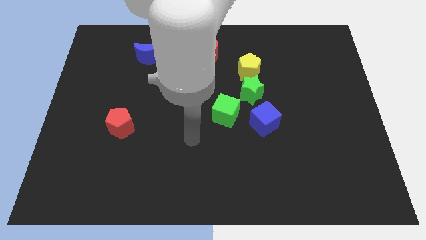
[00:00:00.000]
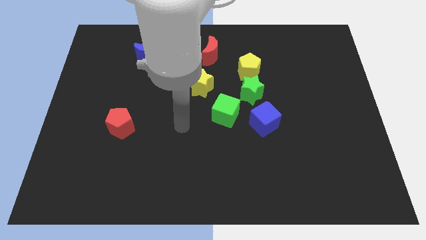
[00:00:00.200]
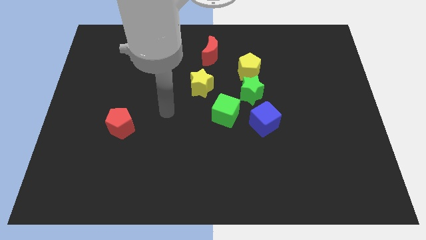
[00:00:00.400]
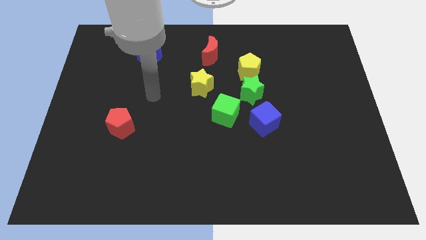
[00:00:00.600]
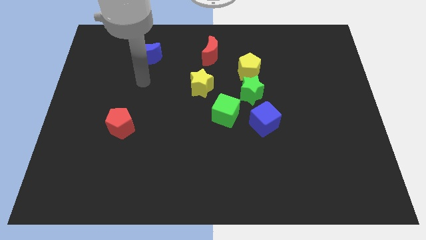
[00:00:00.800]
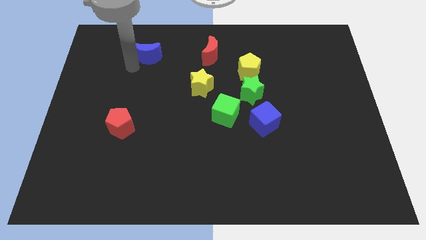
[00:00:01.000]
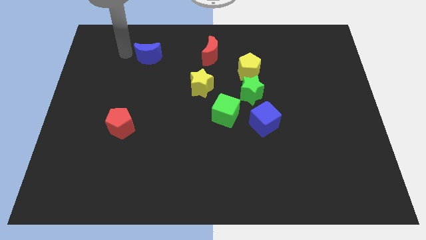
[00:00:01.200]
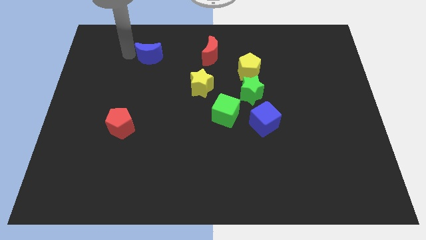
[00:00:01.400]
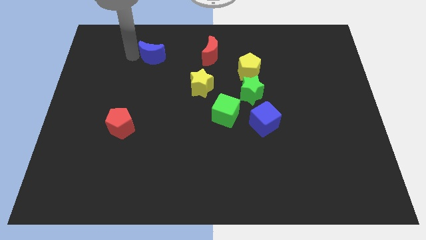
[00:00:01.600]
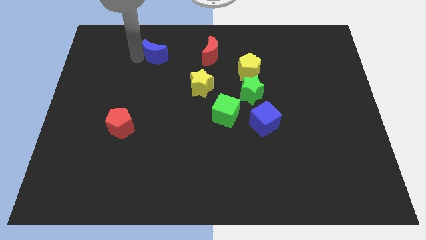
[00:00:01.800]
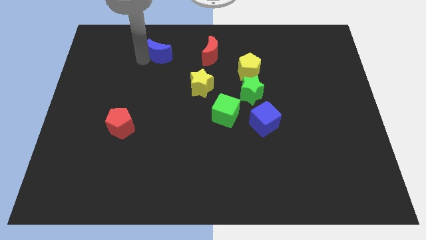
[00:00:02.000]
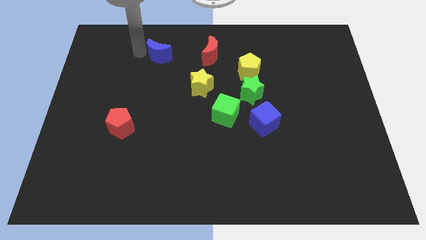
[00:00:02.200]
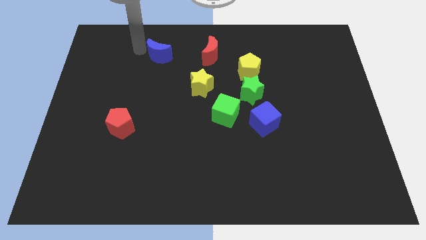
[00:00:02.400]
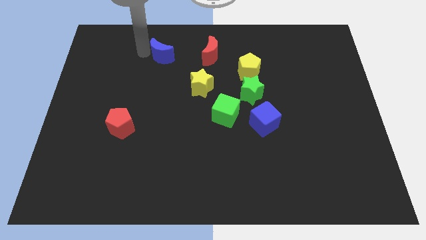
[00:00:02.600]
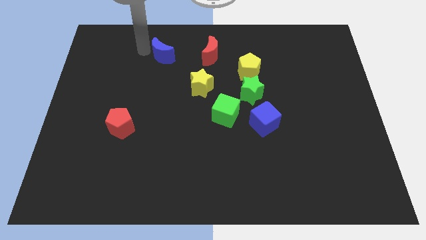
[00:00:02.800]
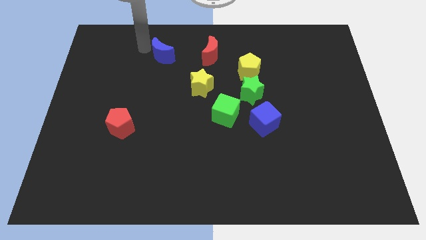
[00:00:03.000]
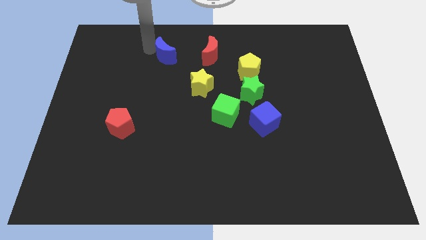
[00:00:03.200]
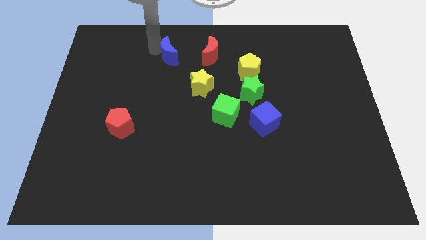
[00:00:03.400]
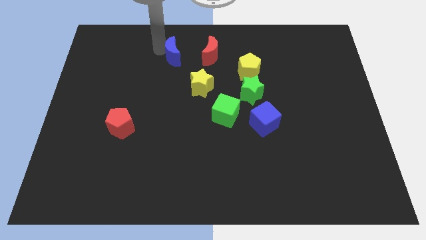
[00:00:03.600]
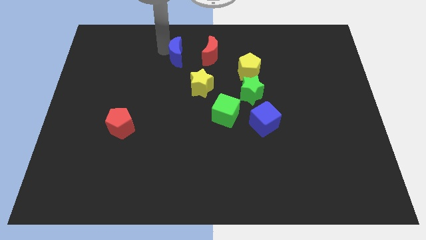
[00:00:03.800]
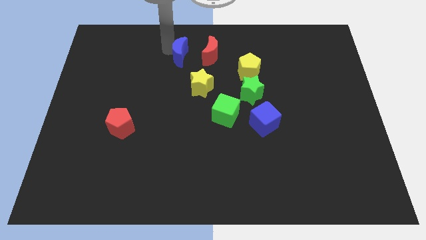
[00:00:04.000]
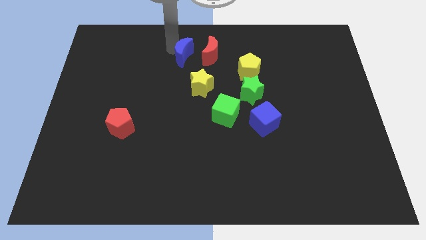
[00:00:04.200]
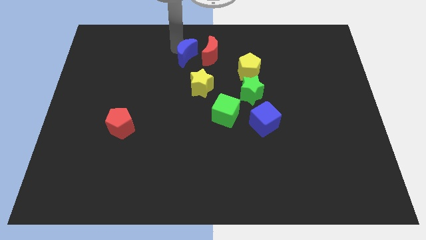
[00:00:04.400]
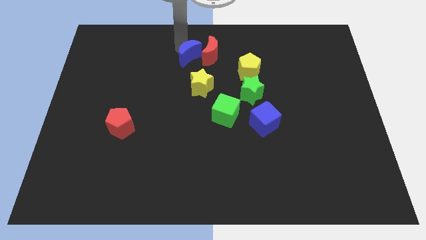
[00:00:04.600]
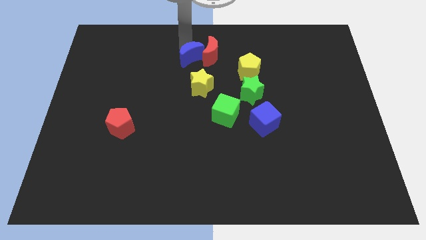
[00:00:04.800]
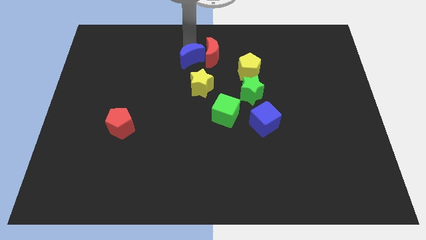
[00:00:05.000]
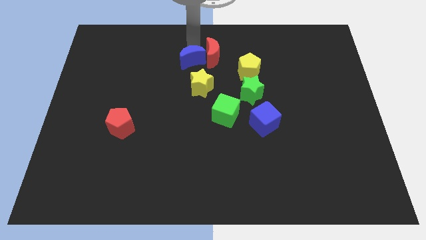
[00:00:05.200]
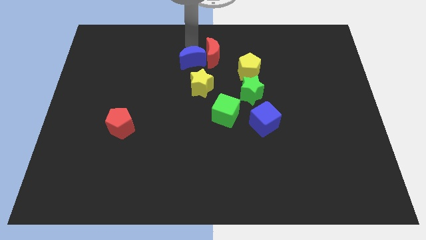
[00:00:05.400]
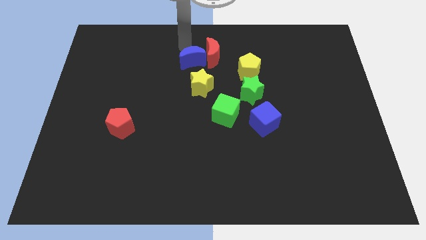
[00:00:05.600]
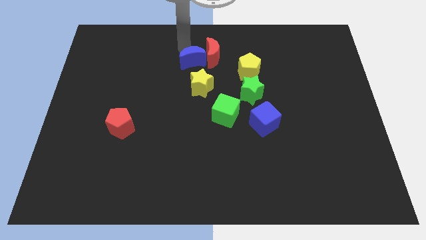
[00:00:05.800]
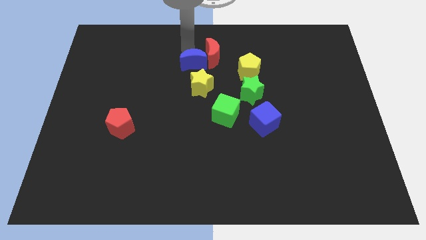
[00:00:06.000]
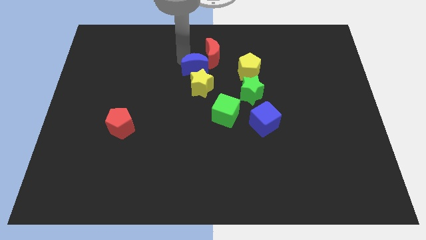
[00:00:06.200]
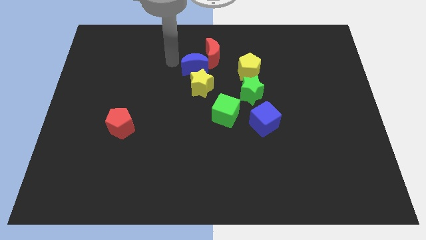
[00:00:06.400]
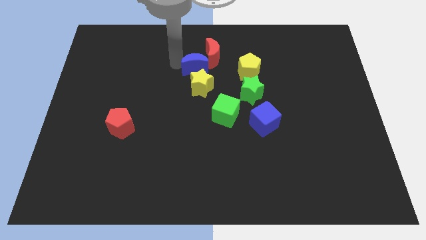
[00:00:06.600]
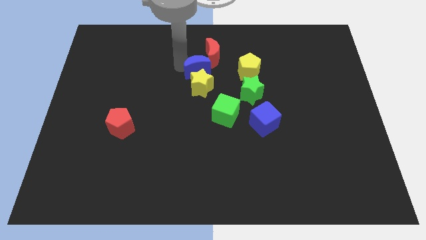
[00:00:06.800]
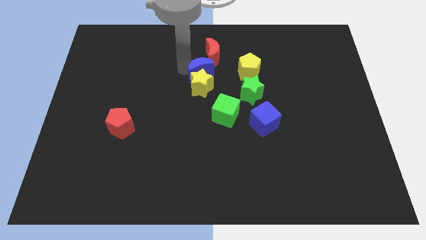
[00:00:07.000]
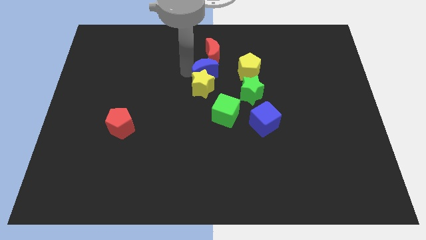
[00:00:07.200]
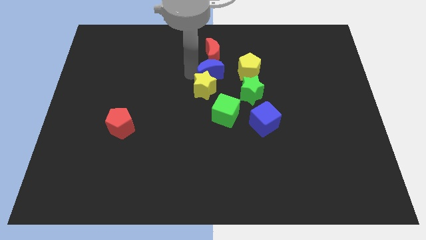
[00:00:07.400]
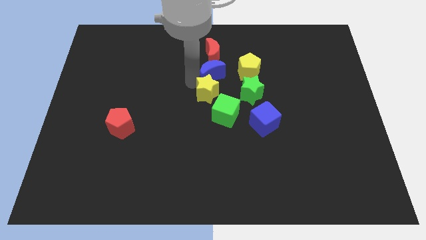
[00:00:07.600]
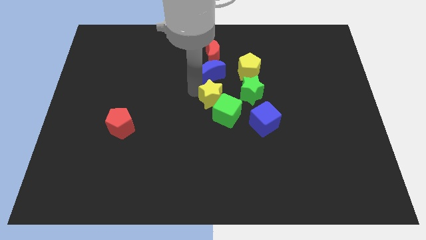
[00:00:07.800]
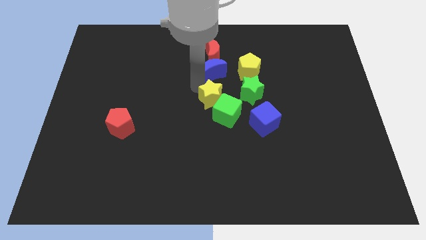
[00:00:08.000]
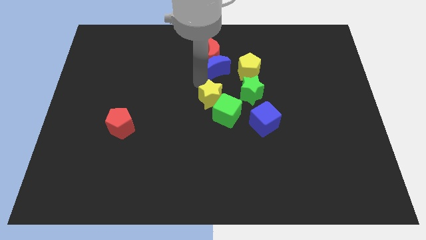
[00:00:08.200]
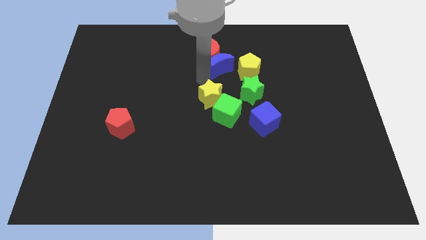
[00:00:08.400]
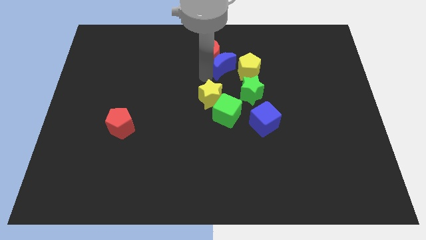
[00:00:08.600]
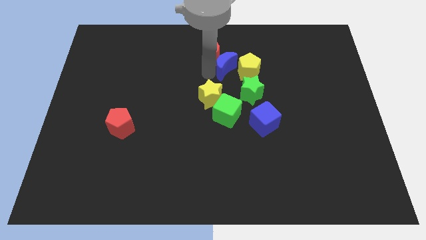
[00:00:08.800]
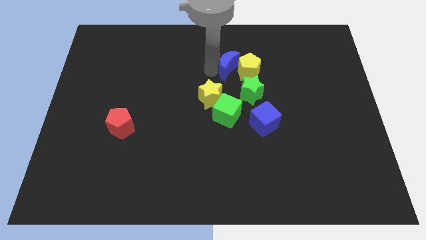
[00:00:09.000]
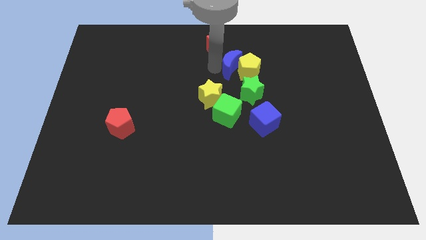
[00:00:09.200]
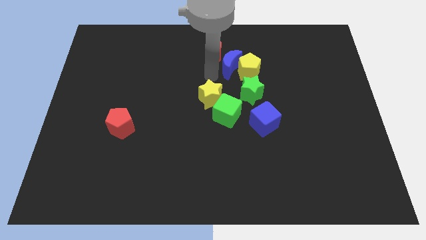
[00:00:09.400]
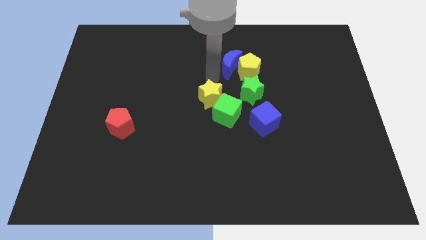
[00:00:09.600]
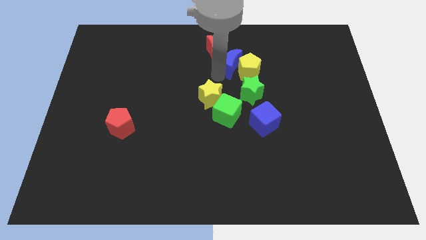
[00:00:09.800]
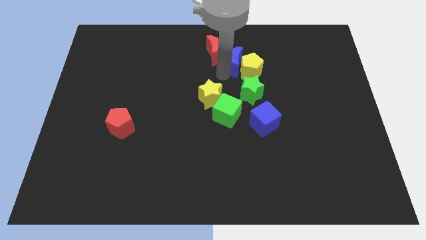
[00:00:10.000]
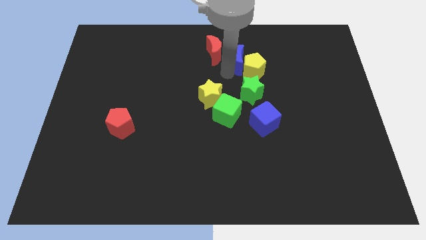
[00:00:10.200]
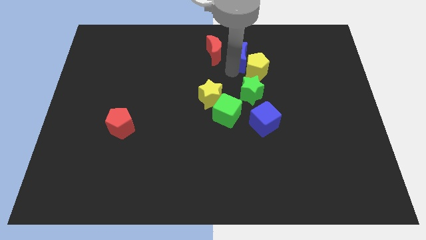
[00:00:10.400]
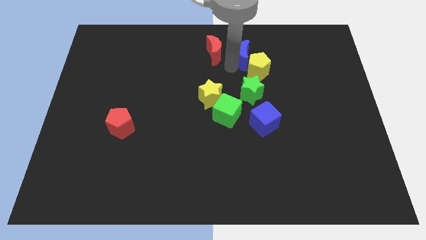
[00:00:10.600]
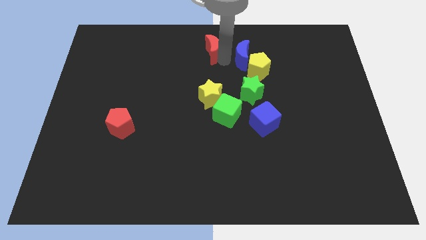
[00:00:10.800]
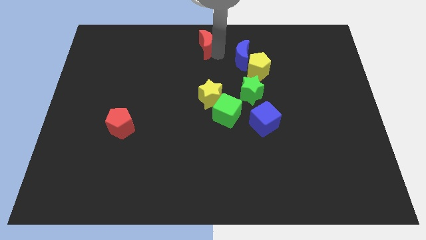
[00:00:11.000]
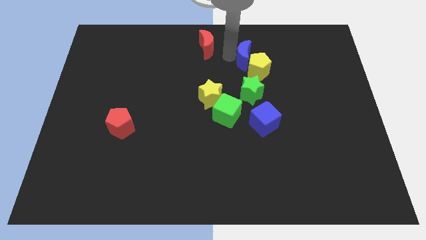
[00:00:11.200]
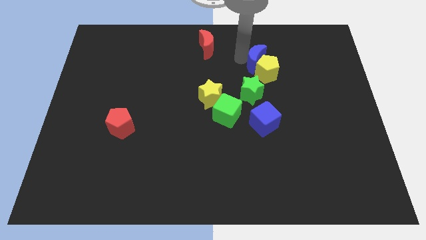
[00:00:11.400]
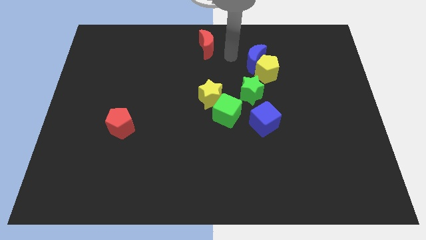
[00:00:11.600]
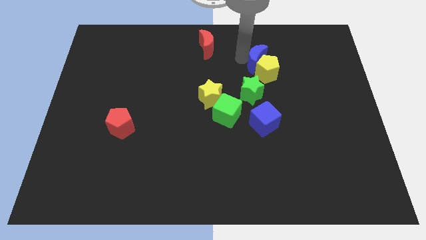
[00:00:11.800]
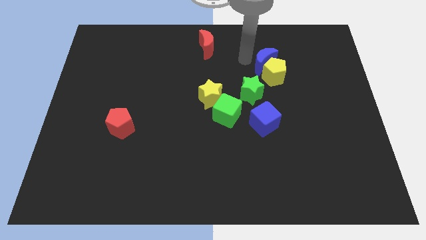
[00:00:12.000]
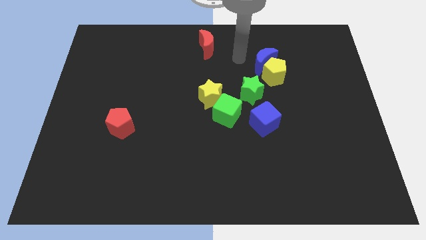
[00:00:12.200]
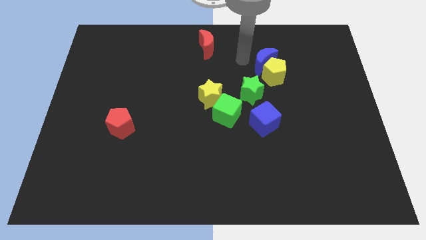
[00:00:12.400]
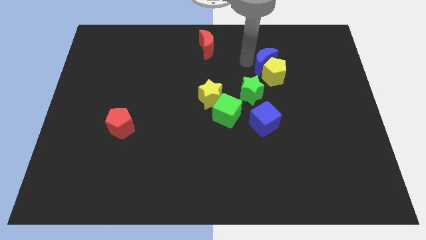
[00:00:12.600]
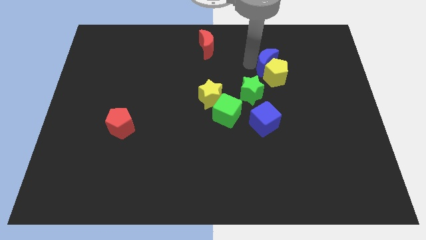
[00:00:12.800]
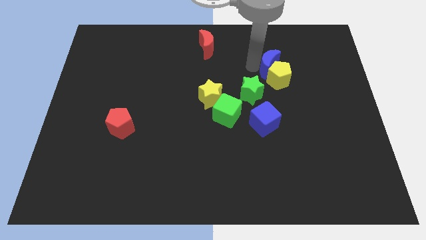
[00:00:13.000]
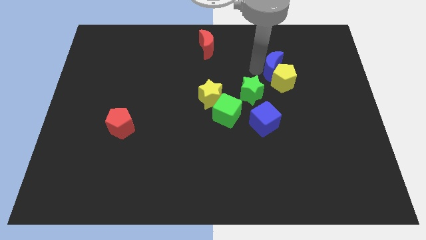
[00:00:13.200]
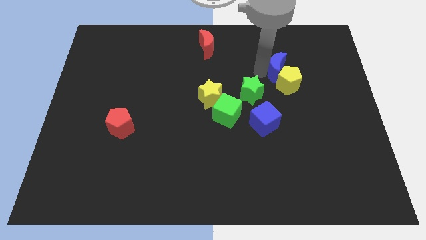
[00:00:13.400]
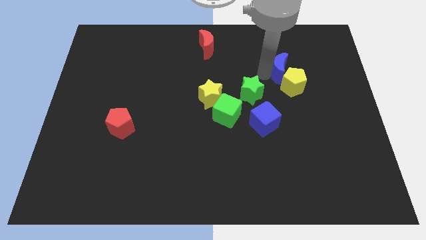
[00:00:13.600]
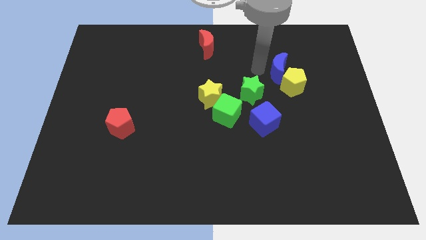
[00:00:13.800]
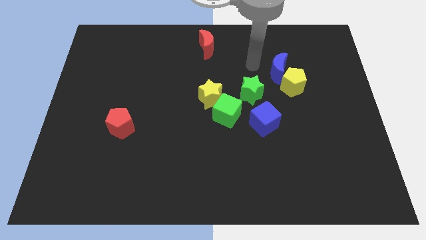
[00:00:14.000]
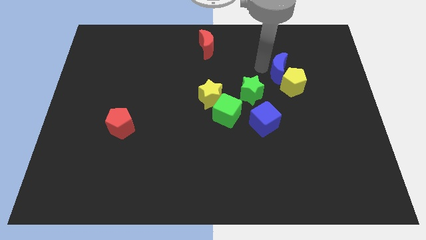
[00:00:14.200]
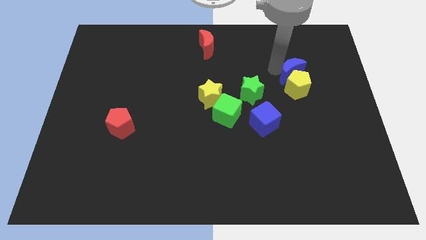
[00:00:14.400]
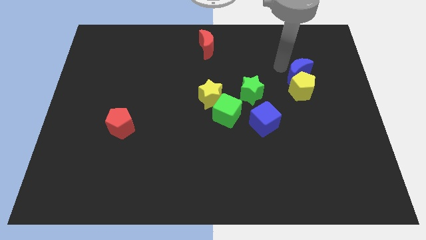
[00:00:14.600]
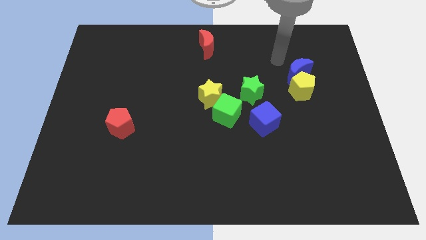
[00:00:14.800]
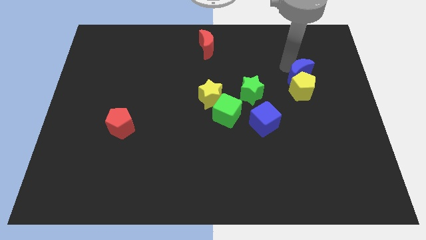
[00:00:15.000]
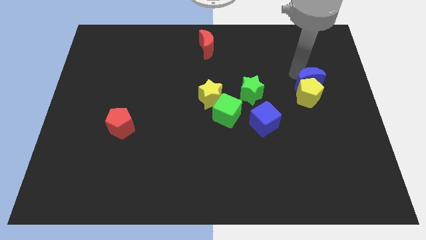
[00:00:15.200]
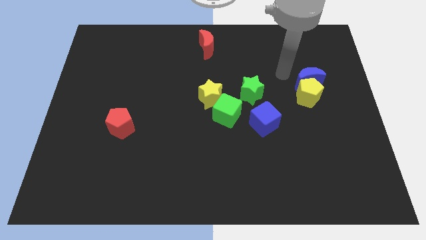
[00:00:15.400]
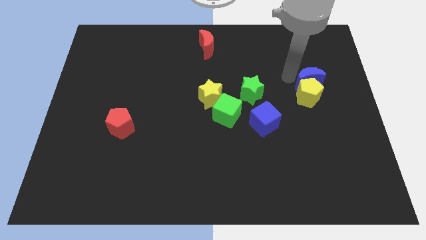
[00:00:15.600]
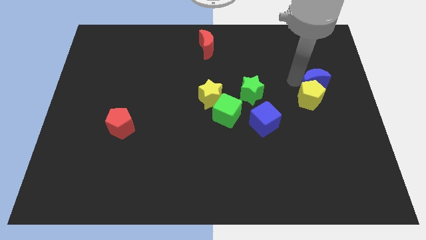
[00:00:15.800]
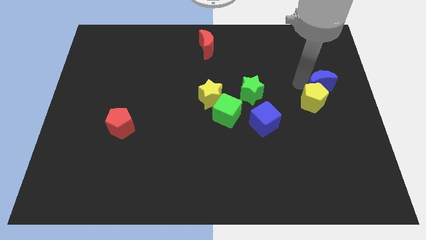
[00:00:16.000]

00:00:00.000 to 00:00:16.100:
slide the blue moon to the center right
